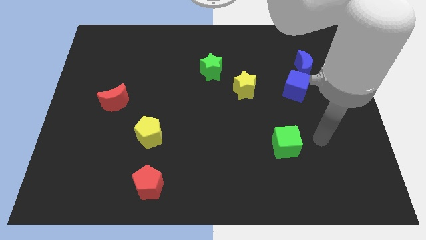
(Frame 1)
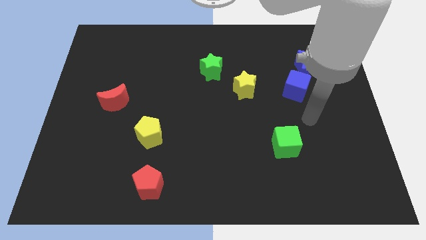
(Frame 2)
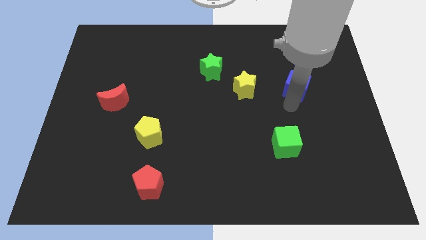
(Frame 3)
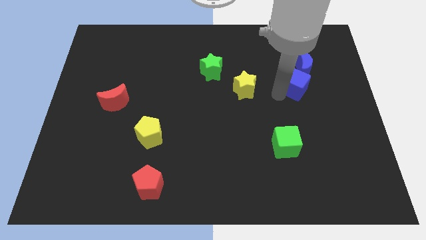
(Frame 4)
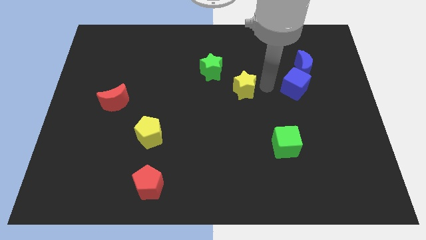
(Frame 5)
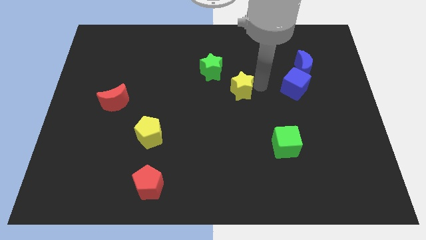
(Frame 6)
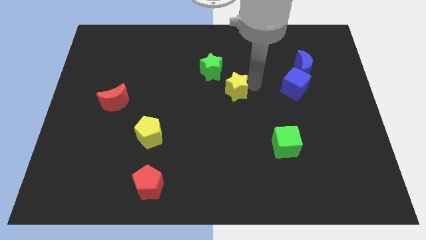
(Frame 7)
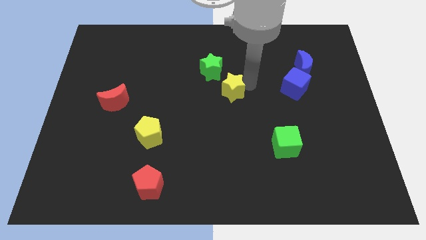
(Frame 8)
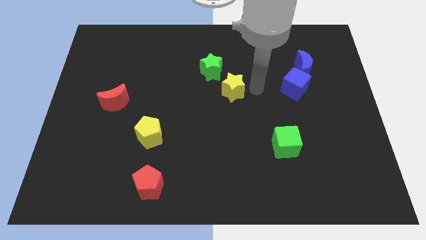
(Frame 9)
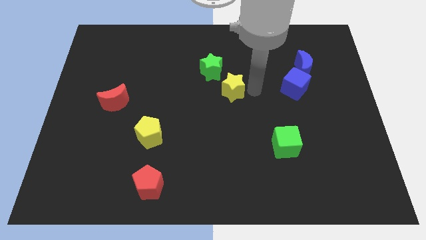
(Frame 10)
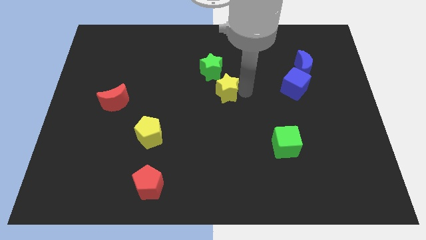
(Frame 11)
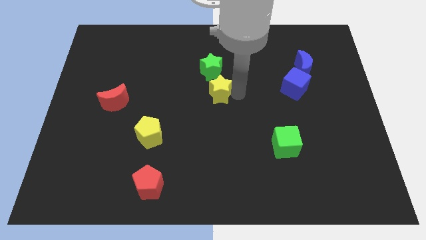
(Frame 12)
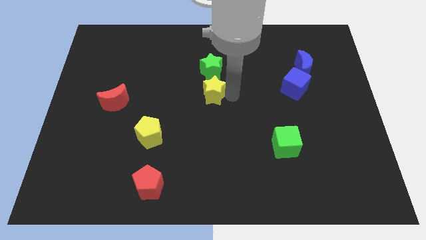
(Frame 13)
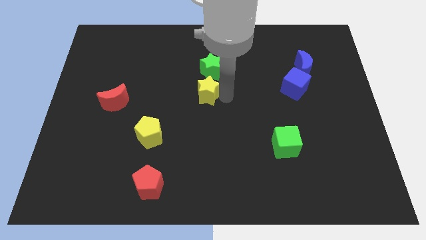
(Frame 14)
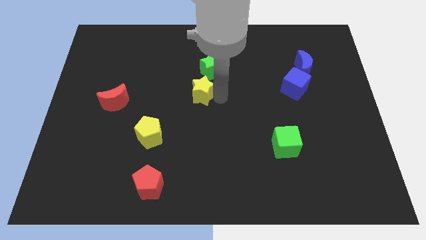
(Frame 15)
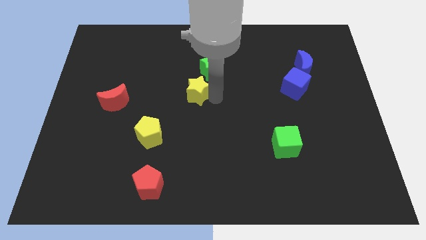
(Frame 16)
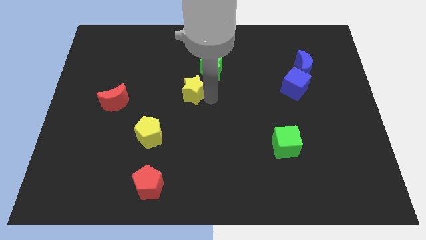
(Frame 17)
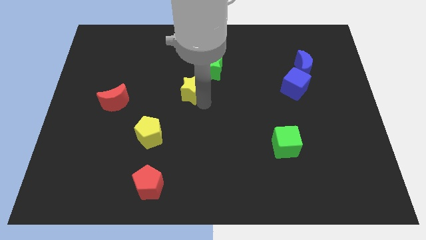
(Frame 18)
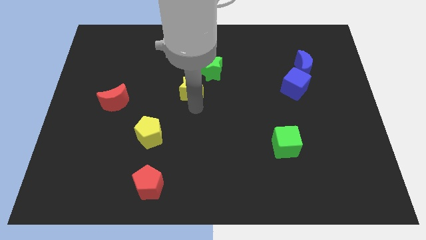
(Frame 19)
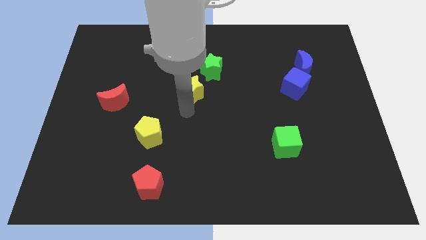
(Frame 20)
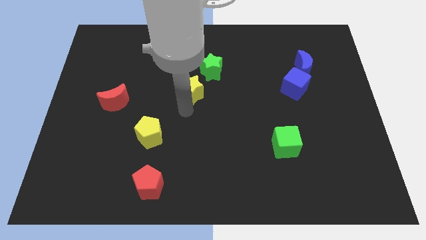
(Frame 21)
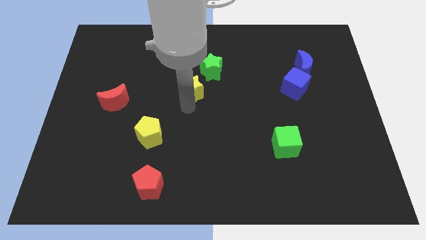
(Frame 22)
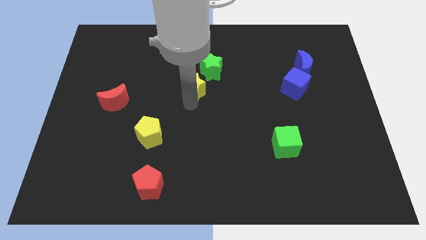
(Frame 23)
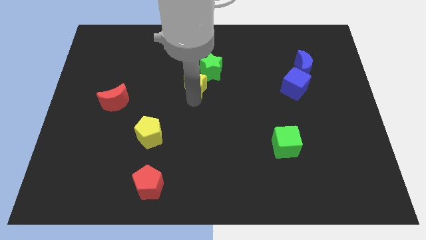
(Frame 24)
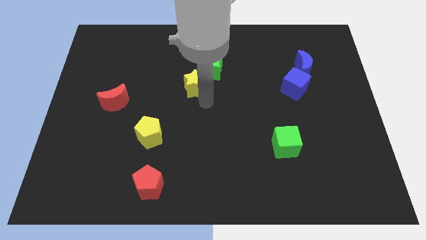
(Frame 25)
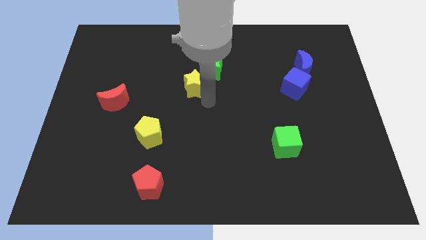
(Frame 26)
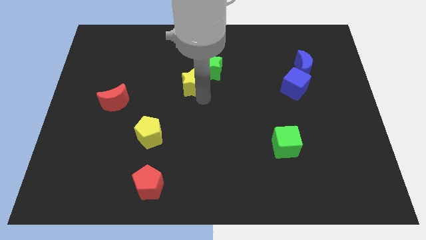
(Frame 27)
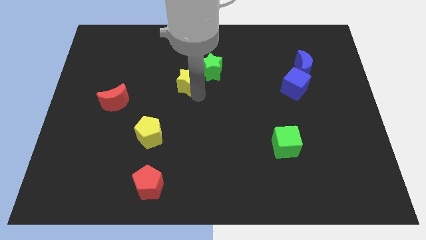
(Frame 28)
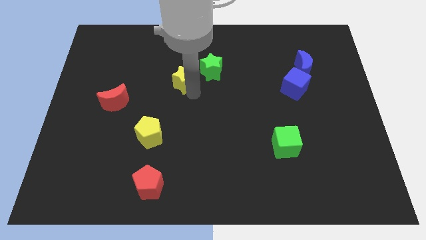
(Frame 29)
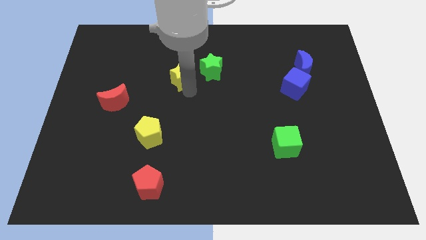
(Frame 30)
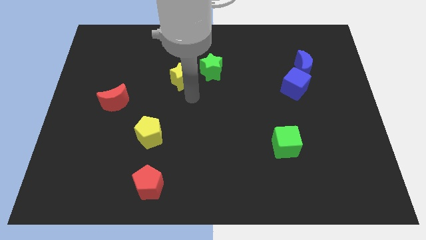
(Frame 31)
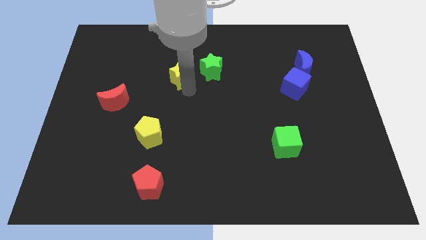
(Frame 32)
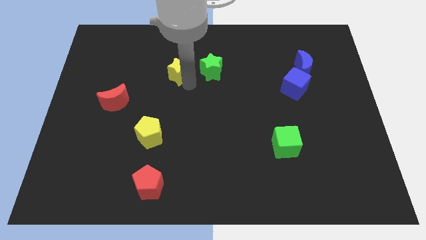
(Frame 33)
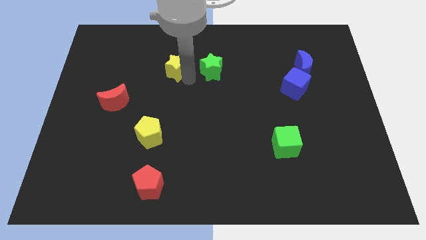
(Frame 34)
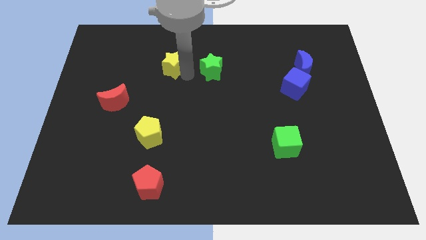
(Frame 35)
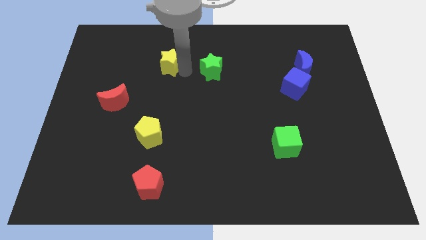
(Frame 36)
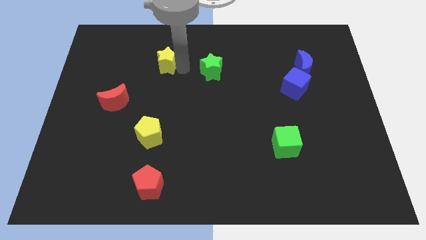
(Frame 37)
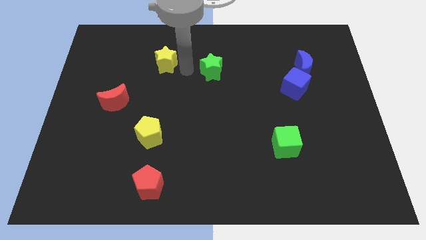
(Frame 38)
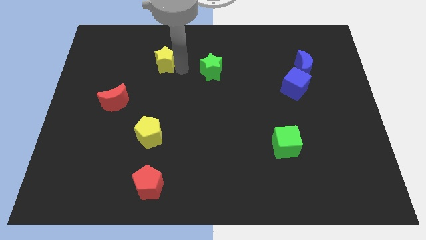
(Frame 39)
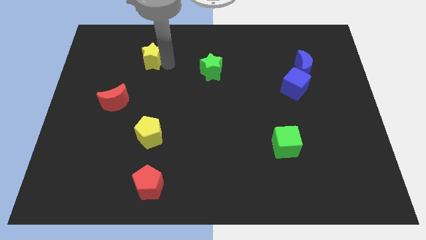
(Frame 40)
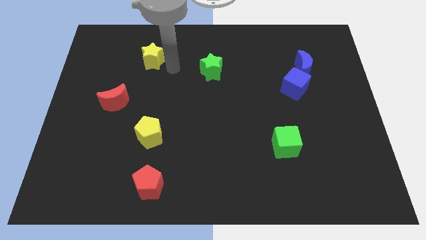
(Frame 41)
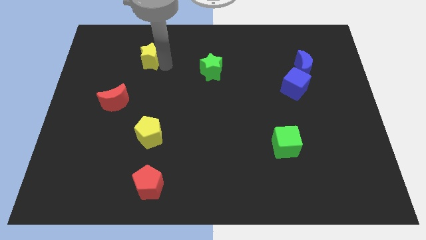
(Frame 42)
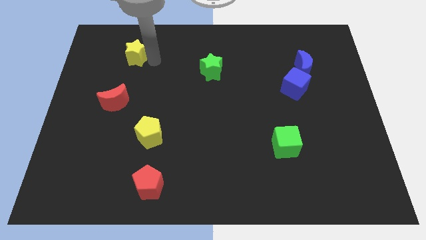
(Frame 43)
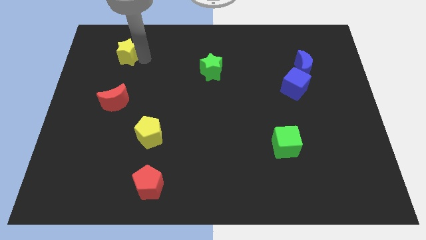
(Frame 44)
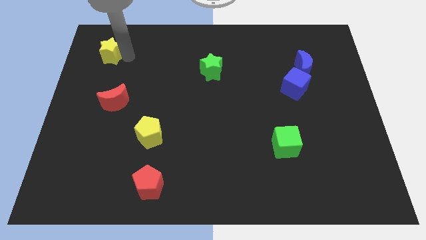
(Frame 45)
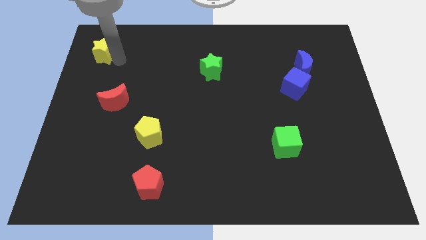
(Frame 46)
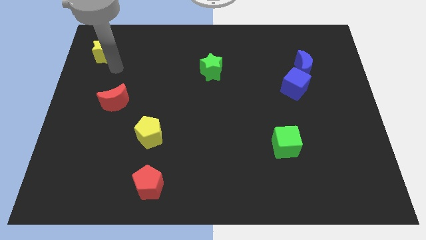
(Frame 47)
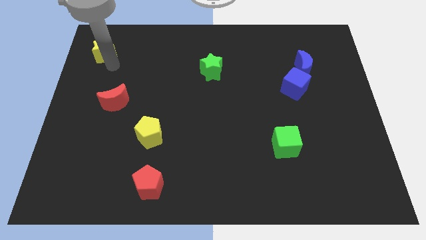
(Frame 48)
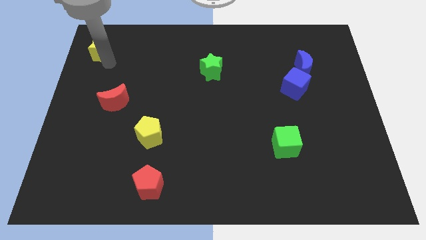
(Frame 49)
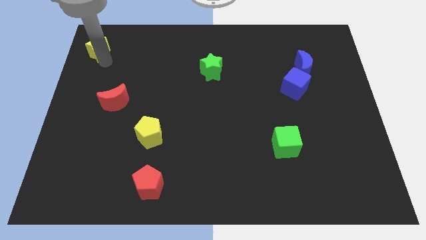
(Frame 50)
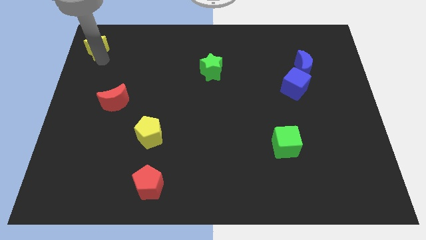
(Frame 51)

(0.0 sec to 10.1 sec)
put the yellow star to the top left of the board

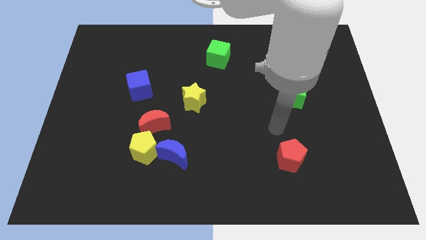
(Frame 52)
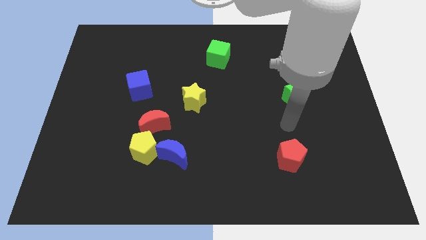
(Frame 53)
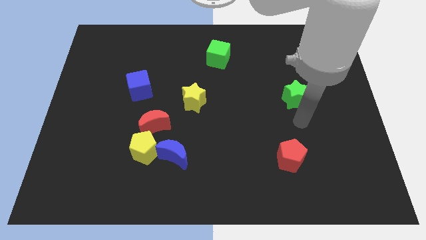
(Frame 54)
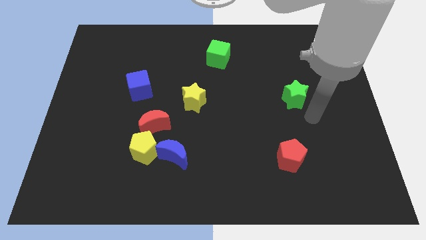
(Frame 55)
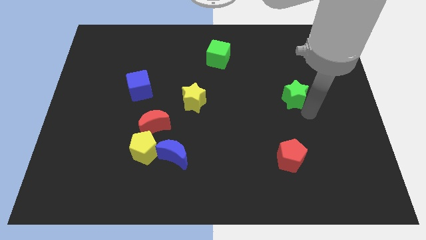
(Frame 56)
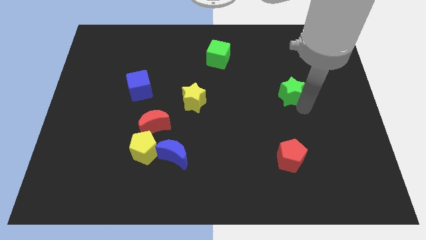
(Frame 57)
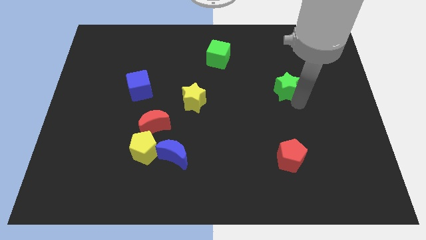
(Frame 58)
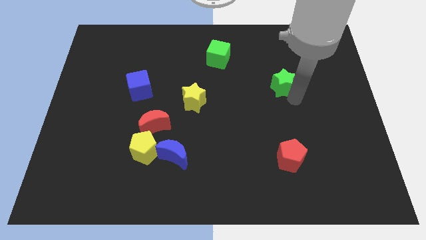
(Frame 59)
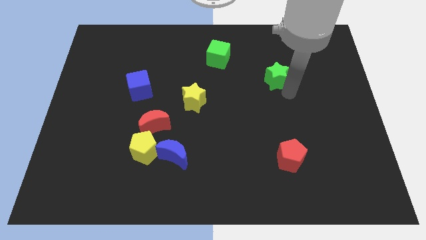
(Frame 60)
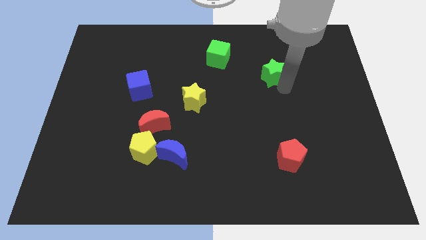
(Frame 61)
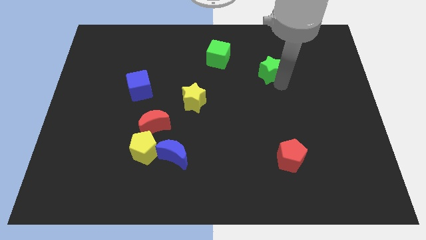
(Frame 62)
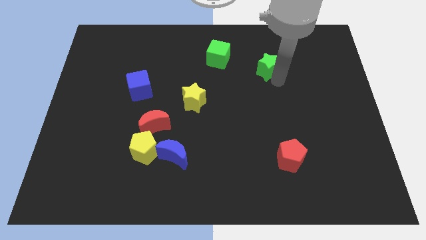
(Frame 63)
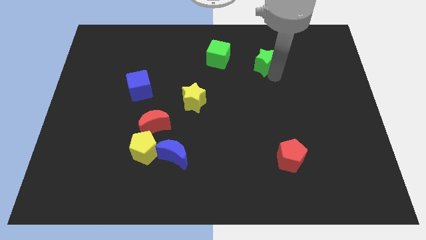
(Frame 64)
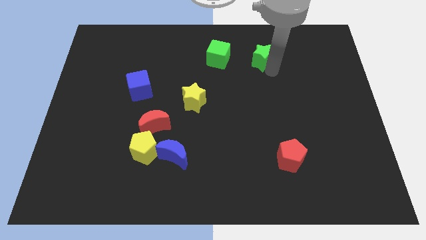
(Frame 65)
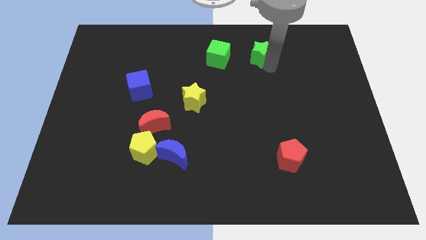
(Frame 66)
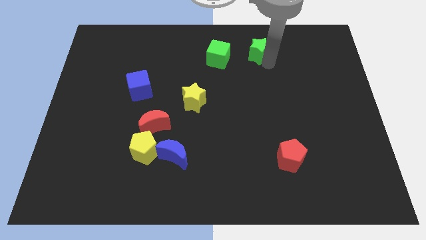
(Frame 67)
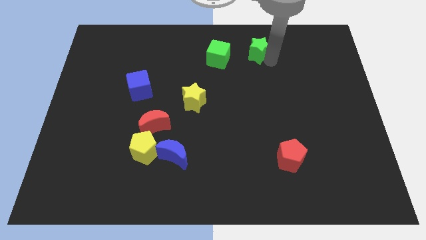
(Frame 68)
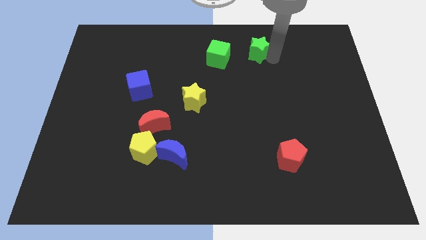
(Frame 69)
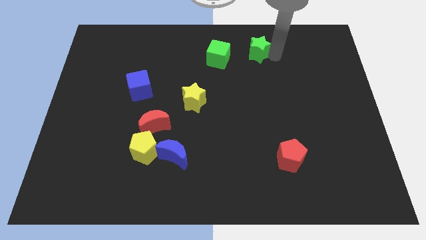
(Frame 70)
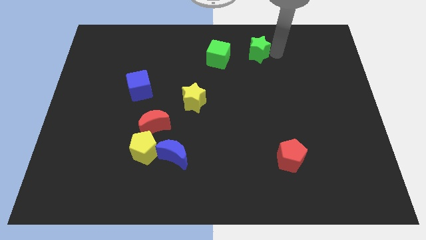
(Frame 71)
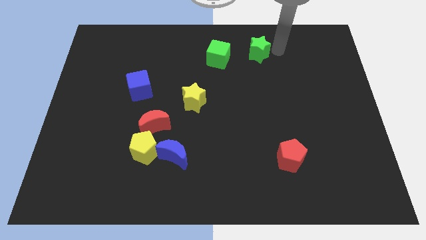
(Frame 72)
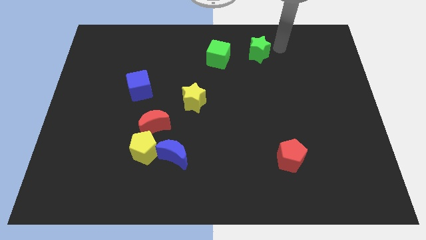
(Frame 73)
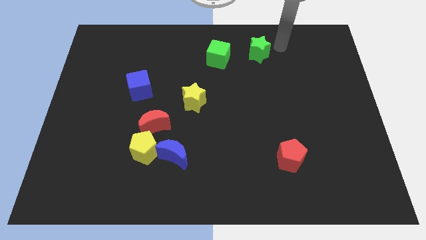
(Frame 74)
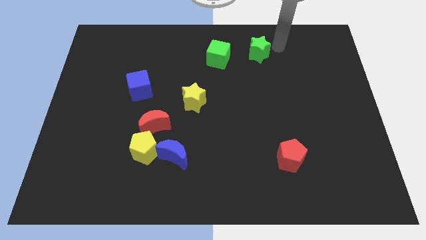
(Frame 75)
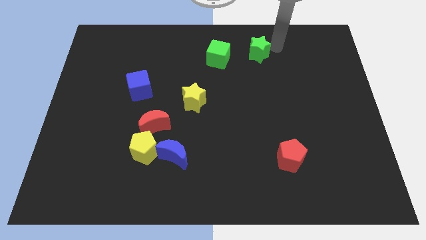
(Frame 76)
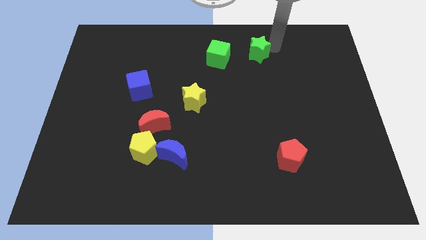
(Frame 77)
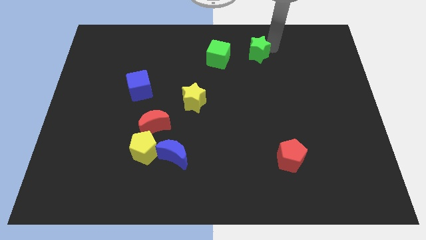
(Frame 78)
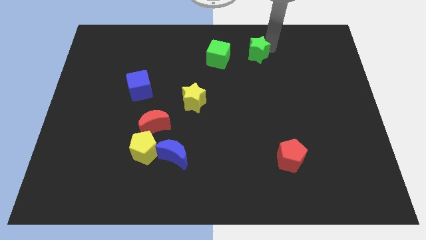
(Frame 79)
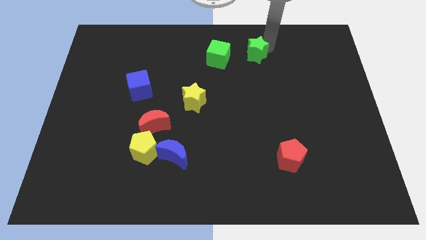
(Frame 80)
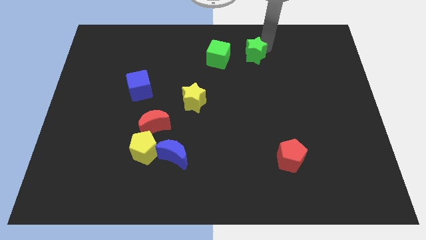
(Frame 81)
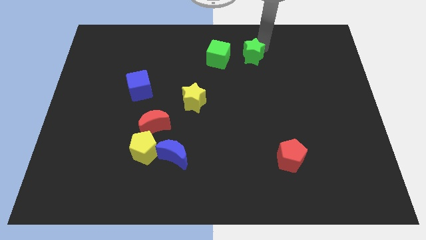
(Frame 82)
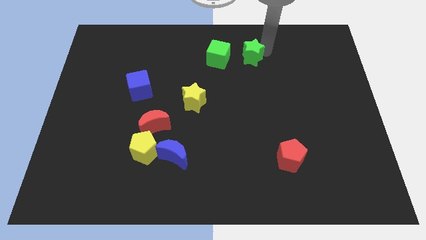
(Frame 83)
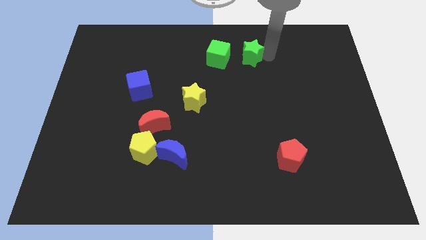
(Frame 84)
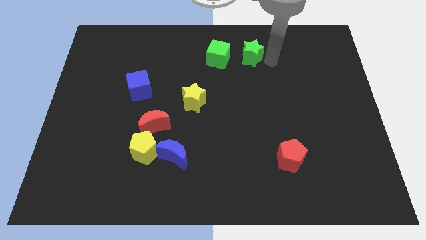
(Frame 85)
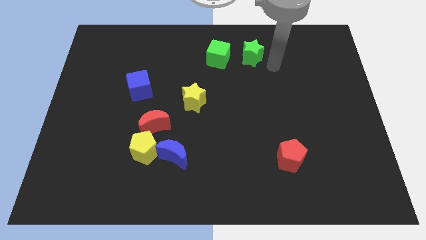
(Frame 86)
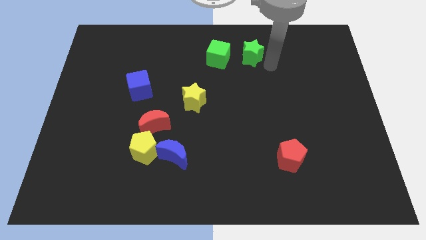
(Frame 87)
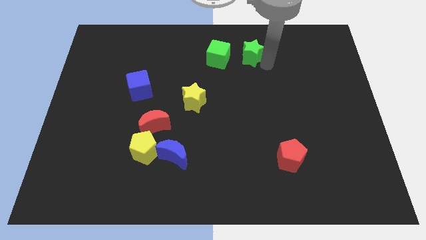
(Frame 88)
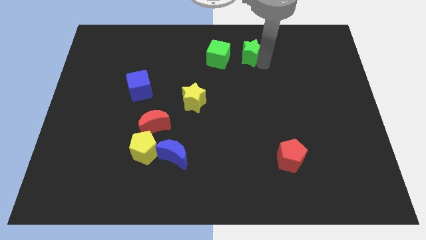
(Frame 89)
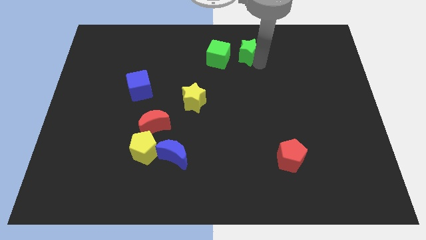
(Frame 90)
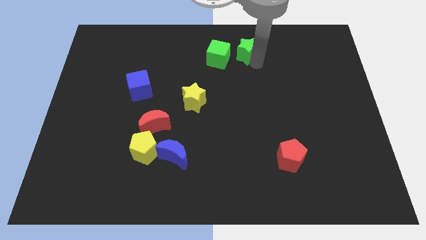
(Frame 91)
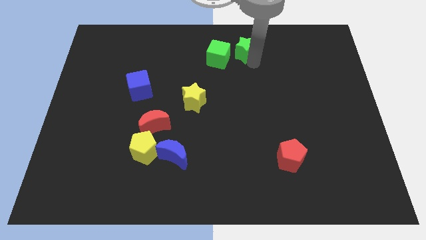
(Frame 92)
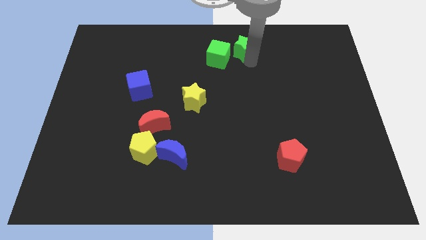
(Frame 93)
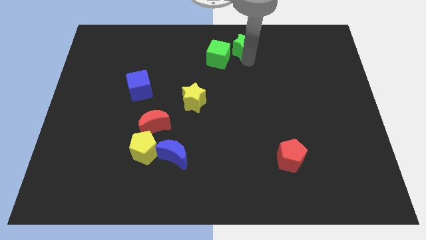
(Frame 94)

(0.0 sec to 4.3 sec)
slide the green star to the top
